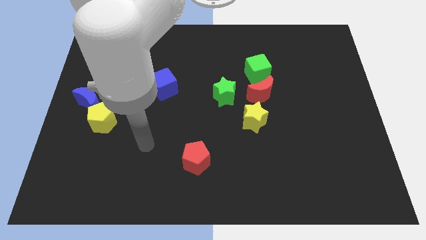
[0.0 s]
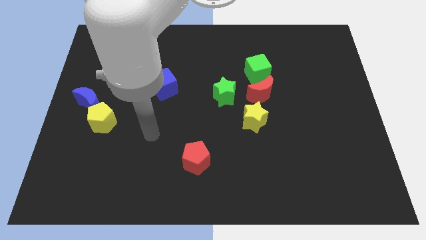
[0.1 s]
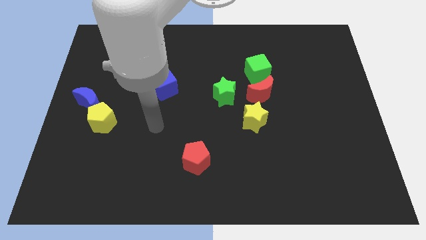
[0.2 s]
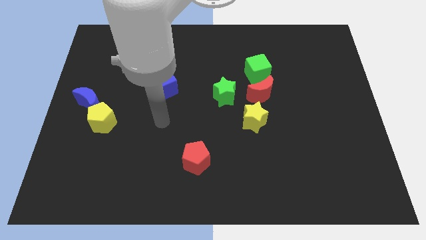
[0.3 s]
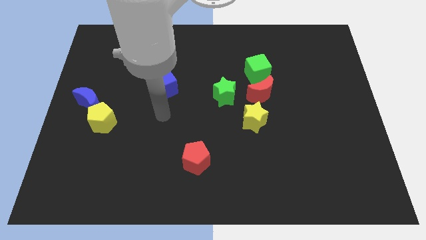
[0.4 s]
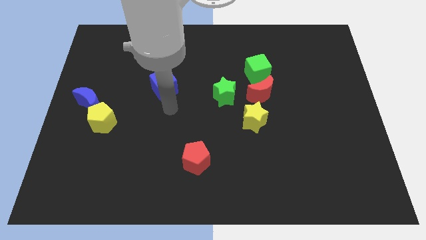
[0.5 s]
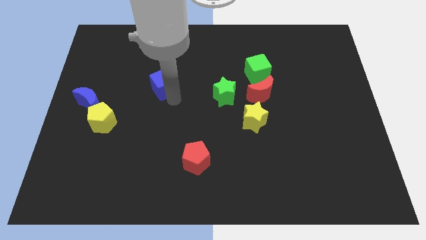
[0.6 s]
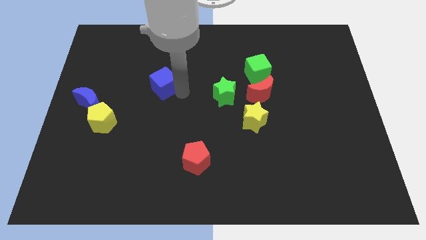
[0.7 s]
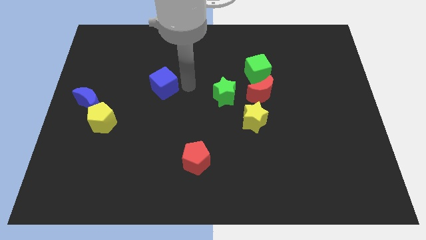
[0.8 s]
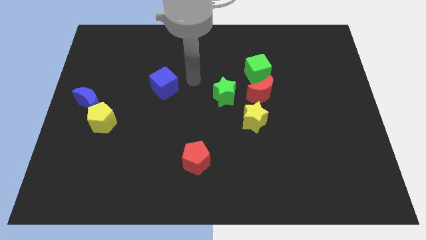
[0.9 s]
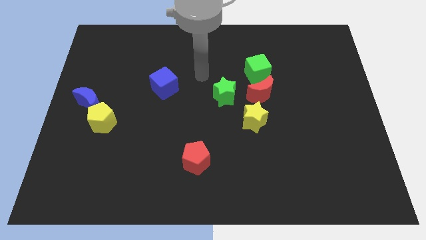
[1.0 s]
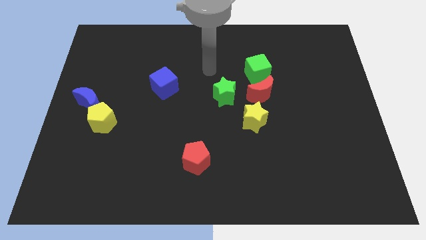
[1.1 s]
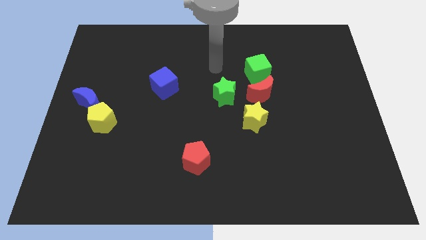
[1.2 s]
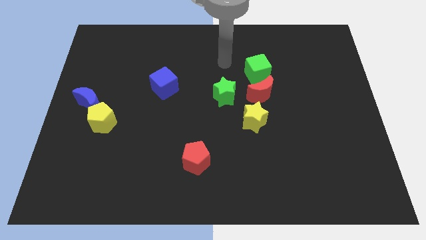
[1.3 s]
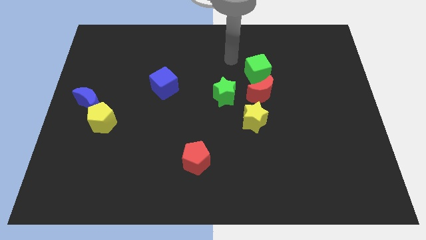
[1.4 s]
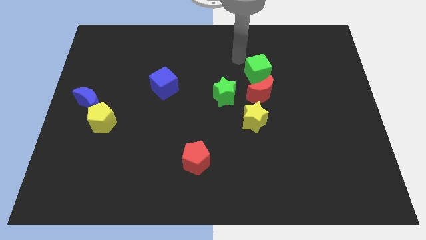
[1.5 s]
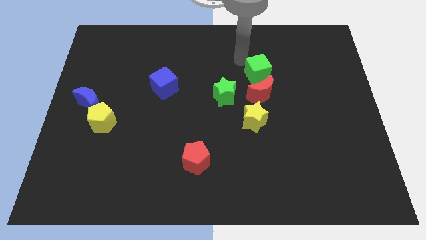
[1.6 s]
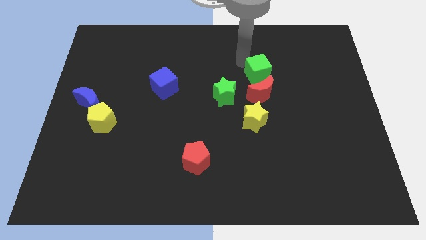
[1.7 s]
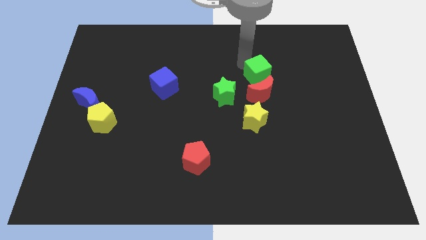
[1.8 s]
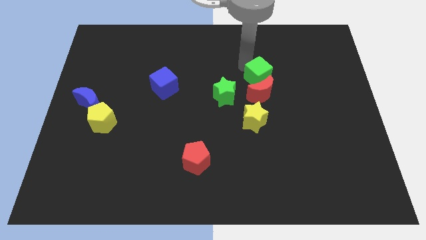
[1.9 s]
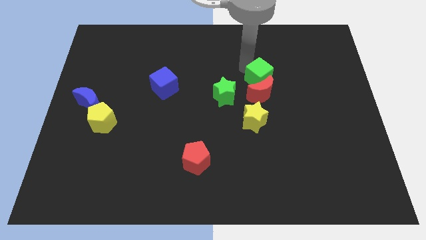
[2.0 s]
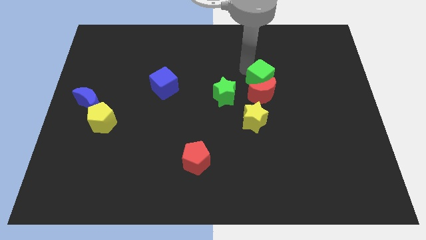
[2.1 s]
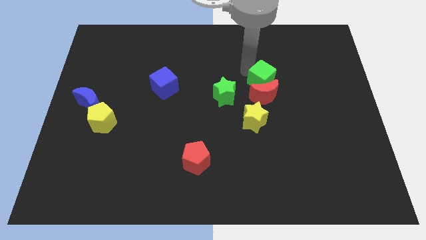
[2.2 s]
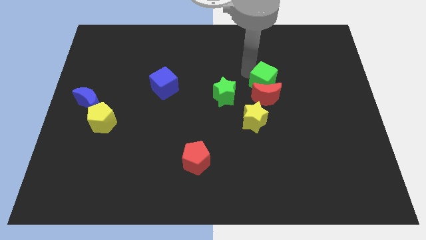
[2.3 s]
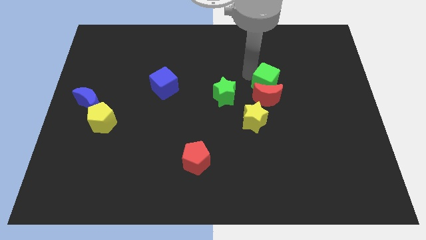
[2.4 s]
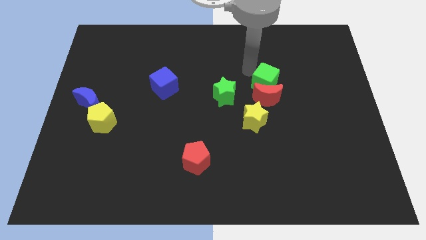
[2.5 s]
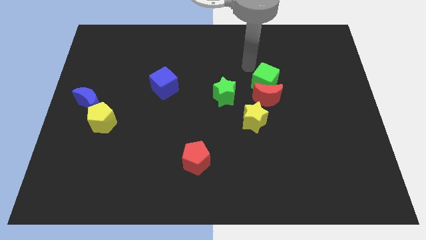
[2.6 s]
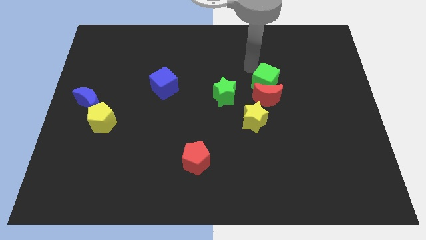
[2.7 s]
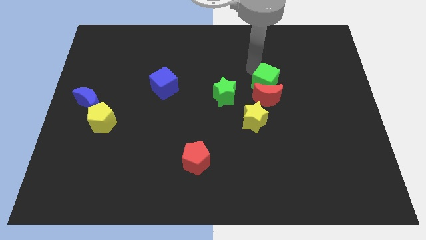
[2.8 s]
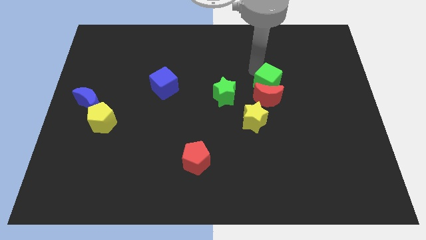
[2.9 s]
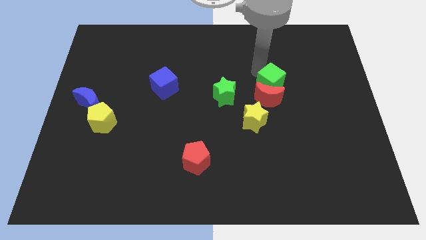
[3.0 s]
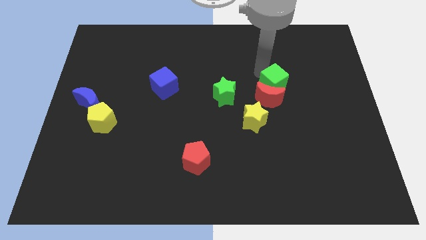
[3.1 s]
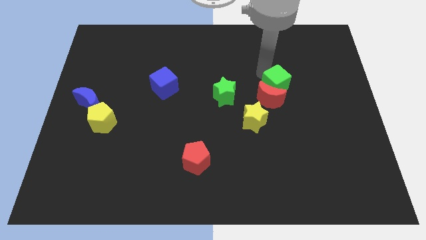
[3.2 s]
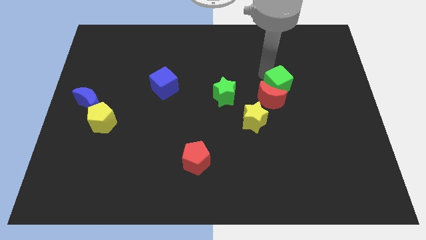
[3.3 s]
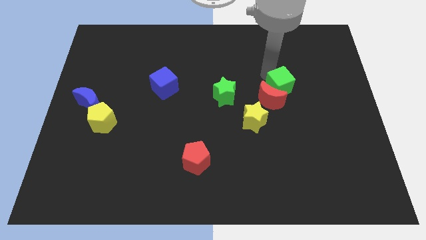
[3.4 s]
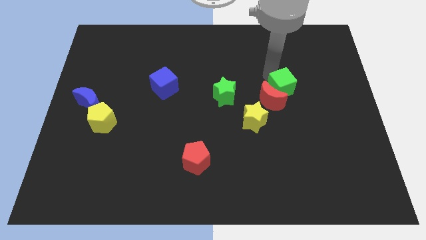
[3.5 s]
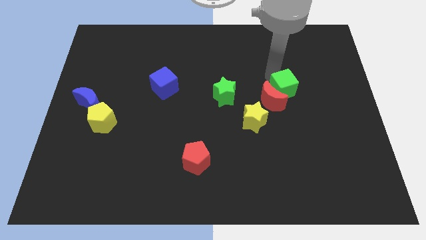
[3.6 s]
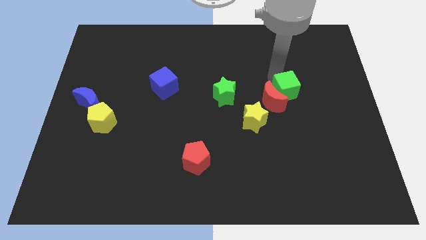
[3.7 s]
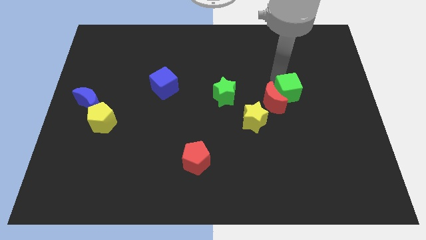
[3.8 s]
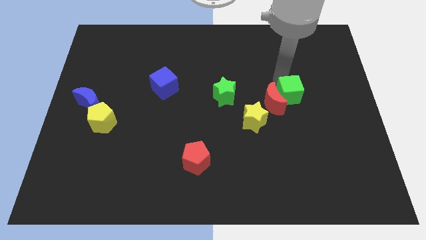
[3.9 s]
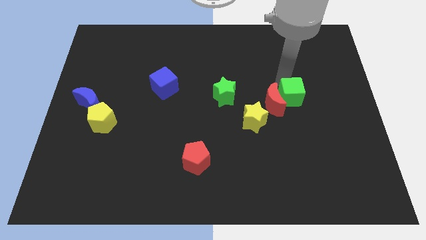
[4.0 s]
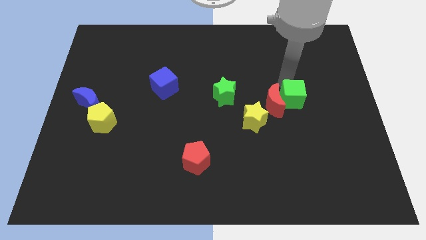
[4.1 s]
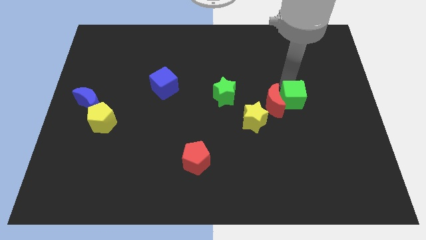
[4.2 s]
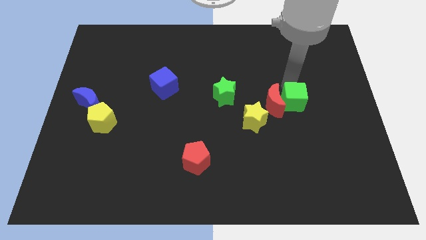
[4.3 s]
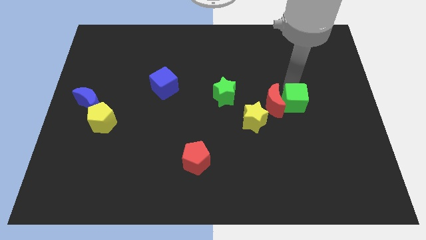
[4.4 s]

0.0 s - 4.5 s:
slightly slide the green cube downwards

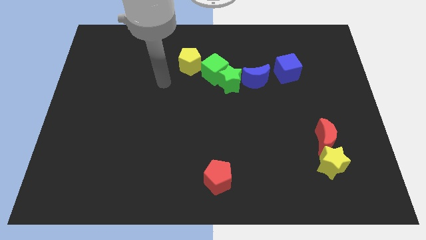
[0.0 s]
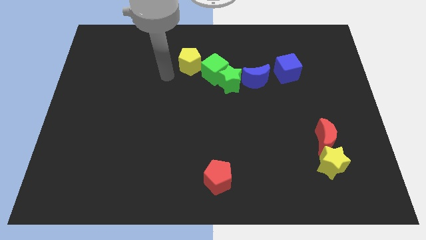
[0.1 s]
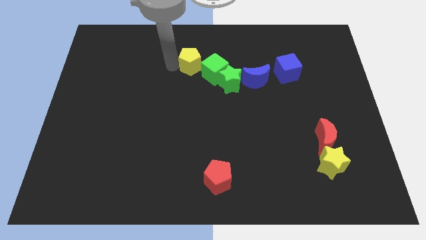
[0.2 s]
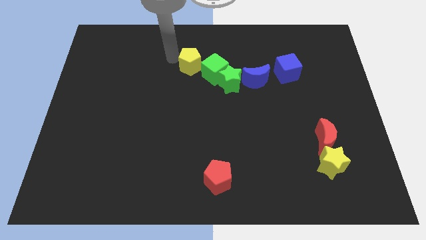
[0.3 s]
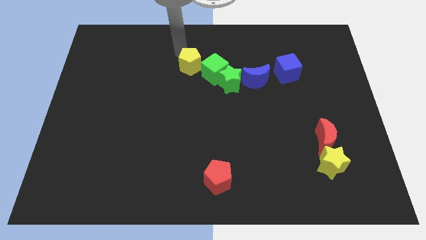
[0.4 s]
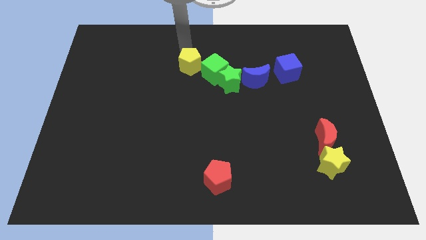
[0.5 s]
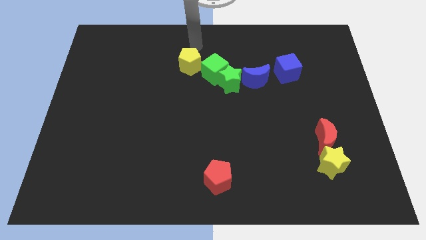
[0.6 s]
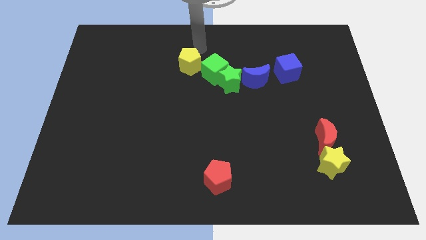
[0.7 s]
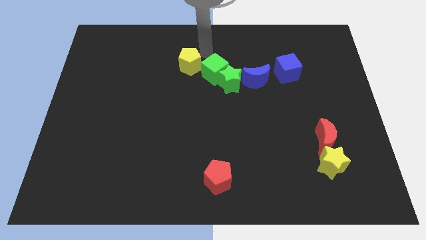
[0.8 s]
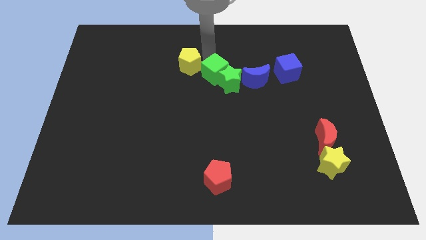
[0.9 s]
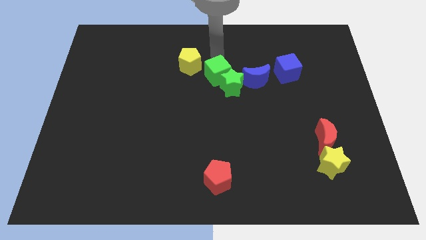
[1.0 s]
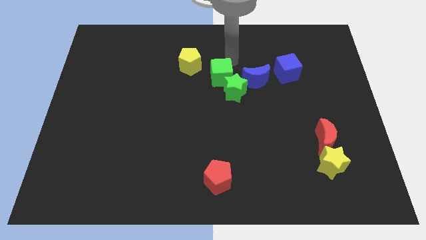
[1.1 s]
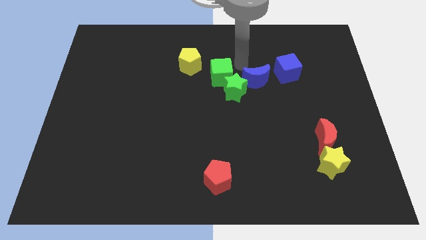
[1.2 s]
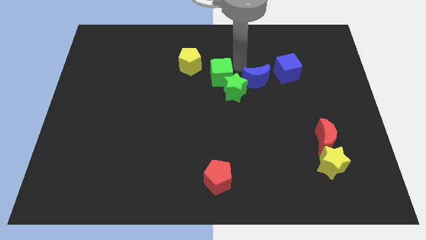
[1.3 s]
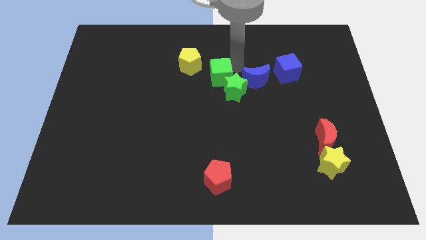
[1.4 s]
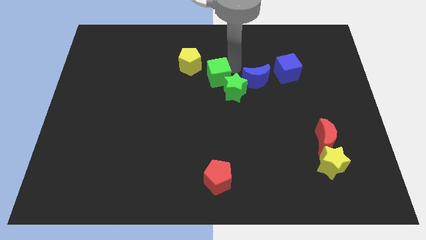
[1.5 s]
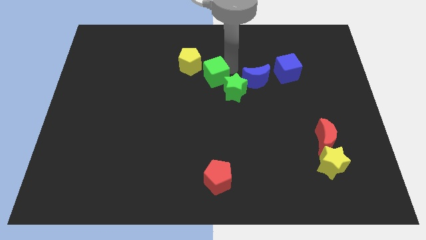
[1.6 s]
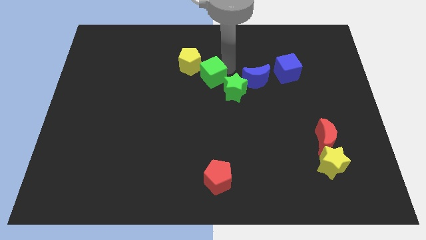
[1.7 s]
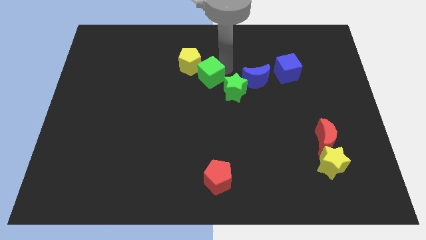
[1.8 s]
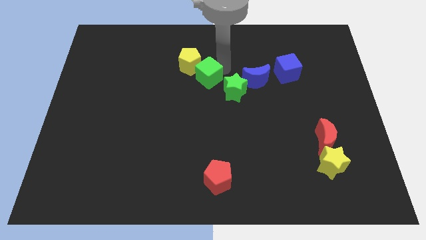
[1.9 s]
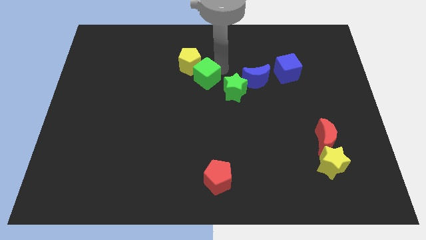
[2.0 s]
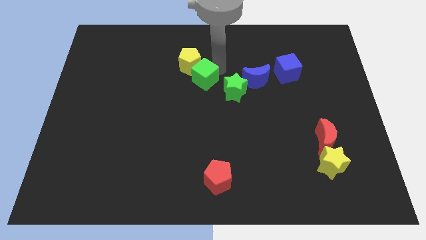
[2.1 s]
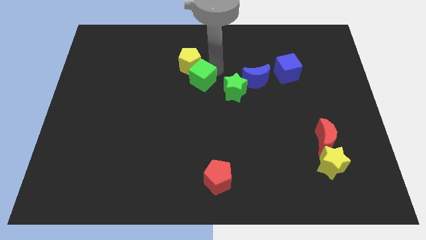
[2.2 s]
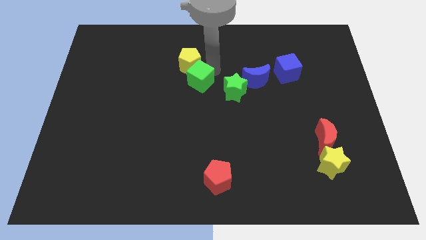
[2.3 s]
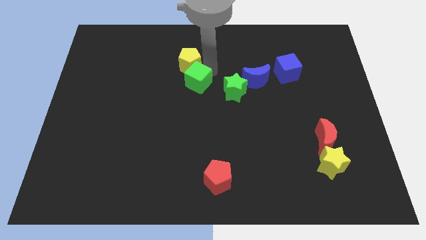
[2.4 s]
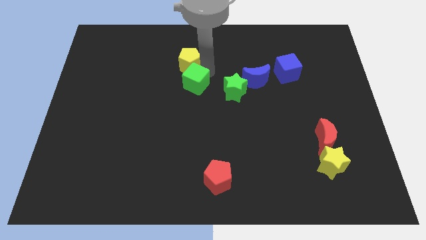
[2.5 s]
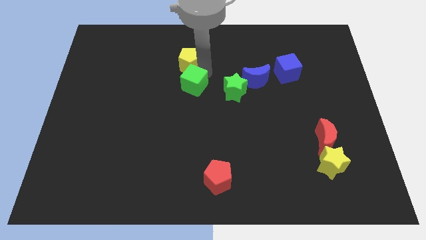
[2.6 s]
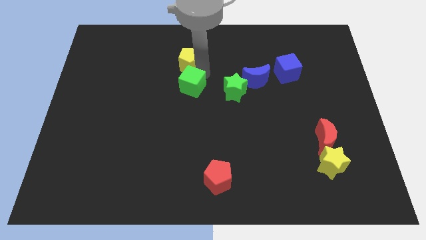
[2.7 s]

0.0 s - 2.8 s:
slightly push the green cube diagonally downwards and to the left

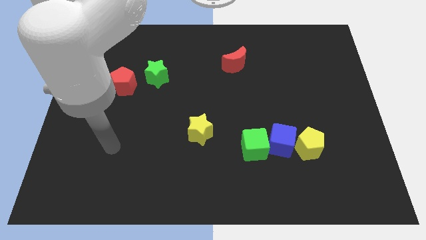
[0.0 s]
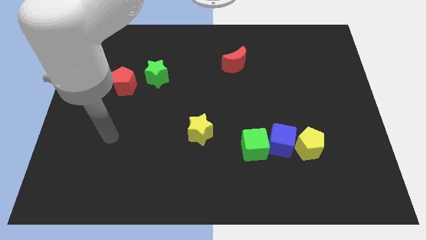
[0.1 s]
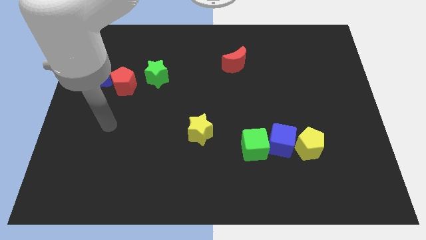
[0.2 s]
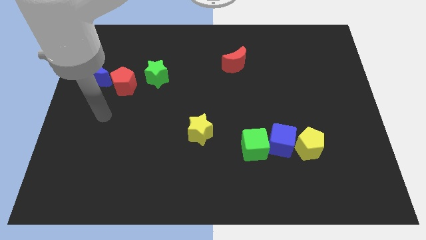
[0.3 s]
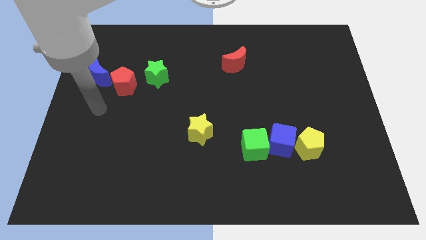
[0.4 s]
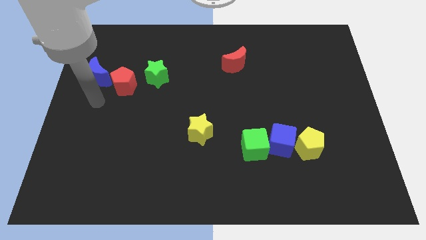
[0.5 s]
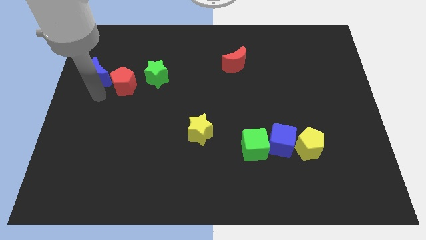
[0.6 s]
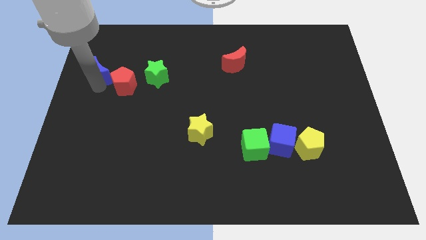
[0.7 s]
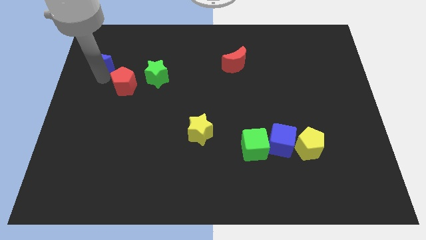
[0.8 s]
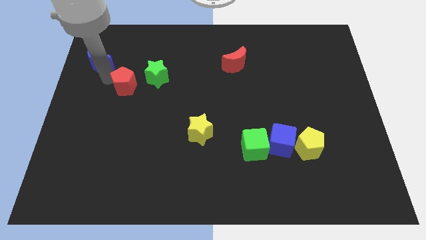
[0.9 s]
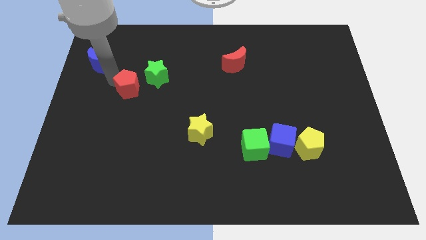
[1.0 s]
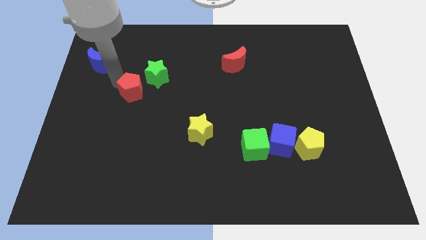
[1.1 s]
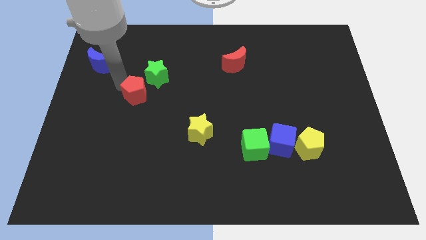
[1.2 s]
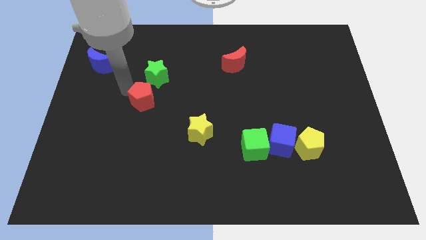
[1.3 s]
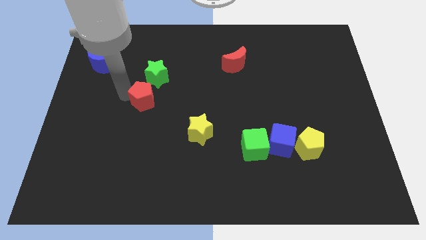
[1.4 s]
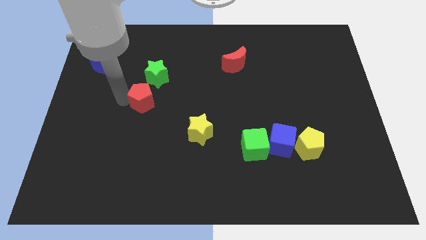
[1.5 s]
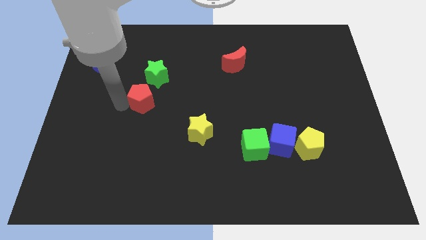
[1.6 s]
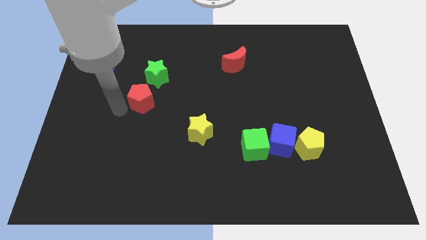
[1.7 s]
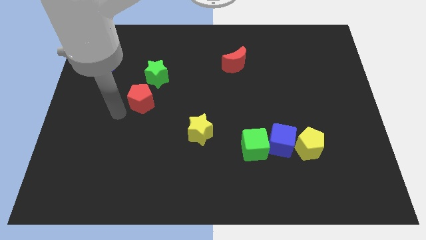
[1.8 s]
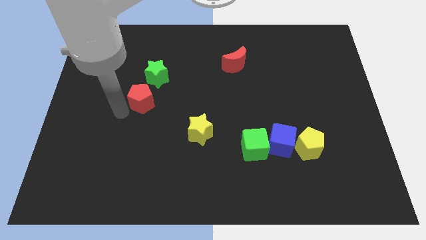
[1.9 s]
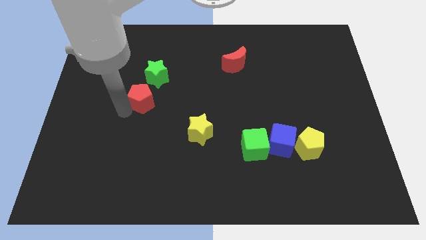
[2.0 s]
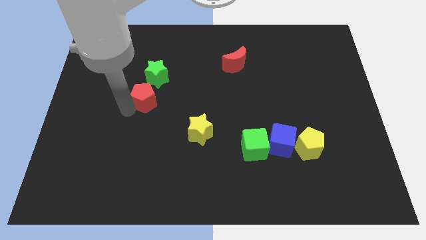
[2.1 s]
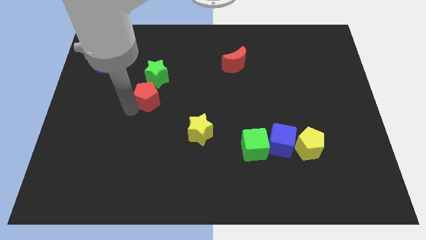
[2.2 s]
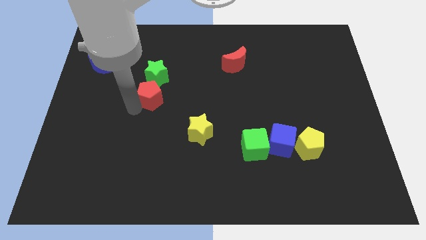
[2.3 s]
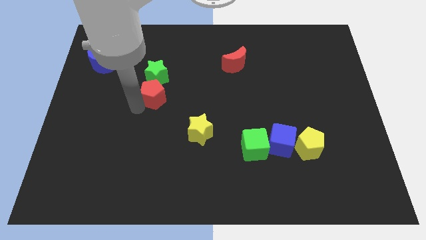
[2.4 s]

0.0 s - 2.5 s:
push the red pentagon a little to the right
